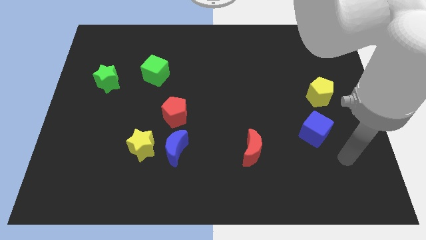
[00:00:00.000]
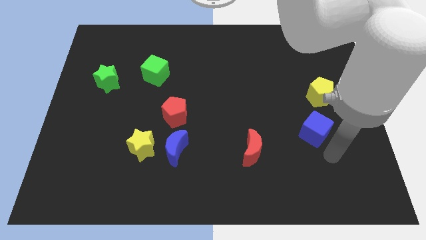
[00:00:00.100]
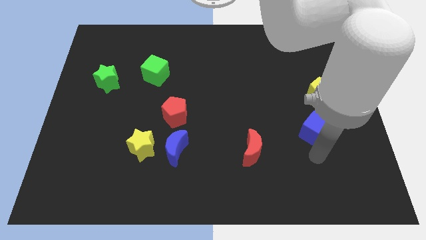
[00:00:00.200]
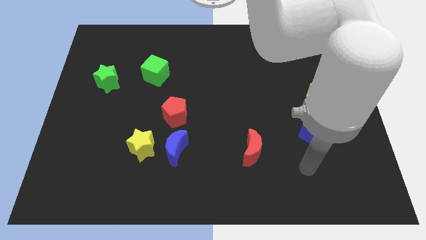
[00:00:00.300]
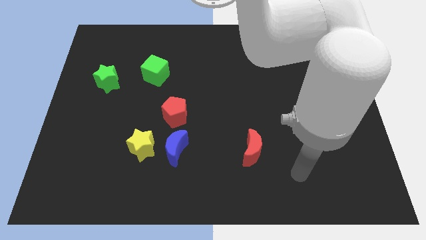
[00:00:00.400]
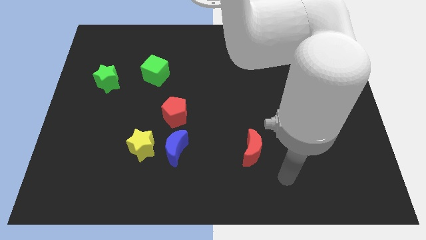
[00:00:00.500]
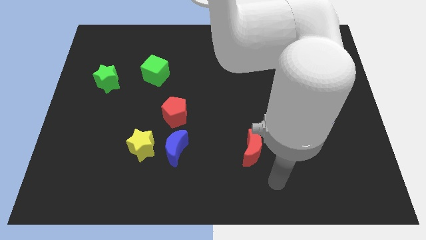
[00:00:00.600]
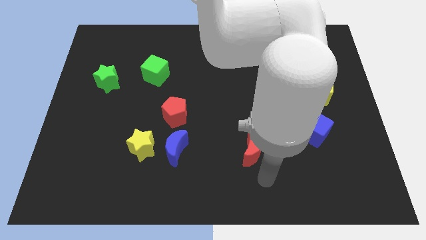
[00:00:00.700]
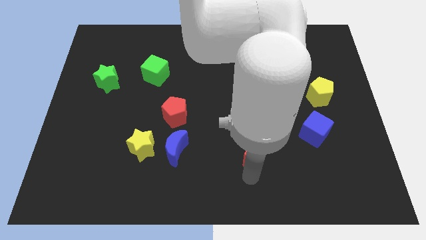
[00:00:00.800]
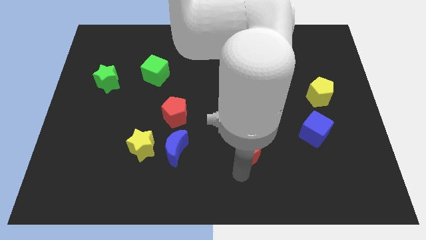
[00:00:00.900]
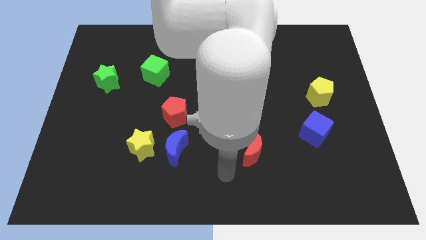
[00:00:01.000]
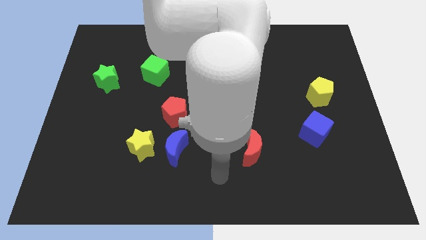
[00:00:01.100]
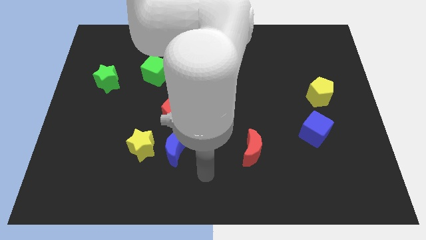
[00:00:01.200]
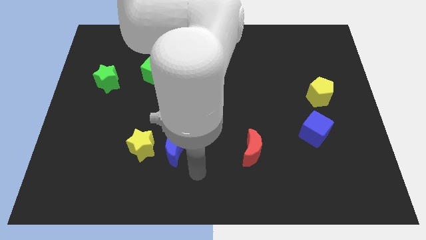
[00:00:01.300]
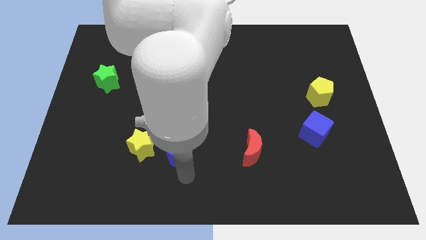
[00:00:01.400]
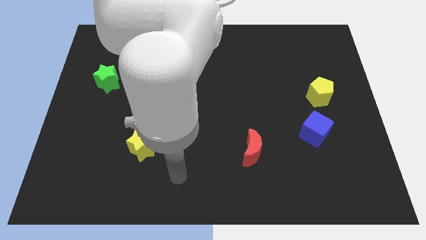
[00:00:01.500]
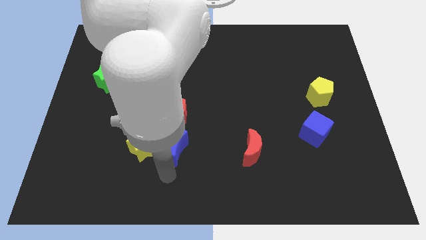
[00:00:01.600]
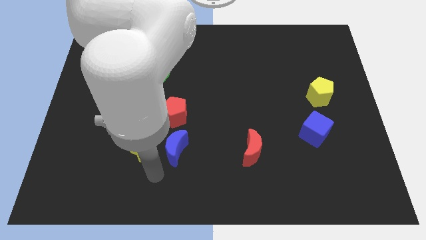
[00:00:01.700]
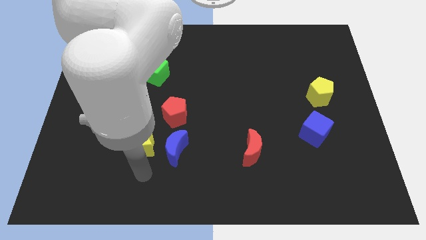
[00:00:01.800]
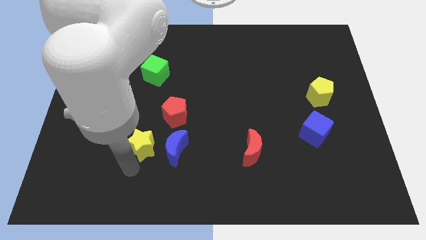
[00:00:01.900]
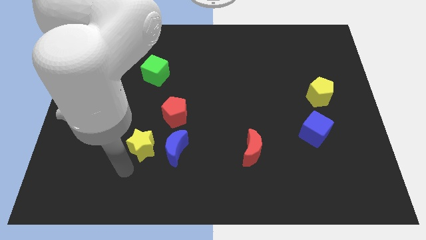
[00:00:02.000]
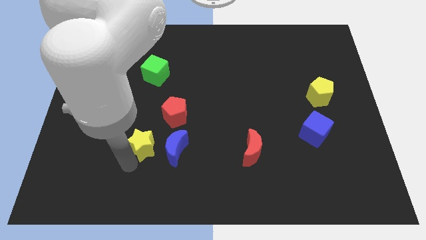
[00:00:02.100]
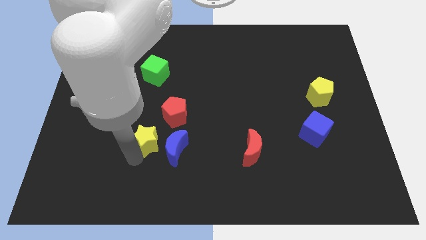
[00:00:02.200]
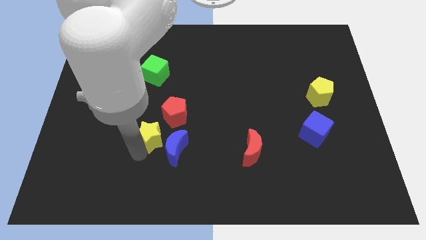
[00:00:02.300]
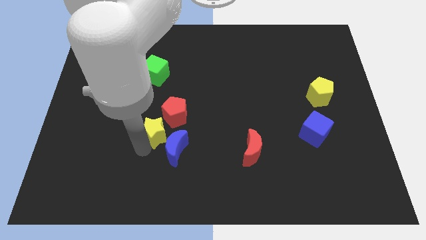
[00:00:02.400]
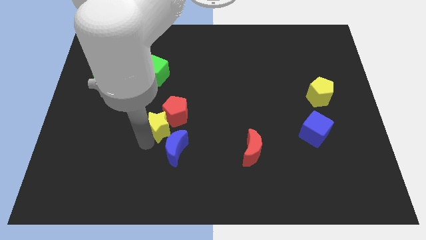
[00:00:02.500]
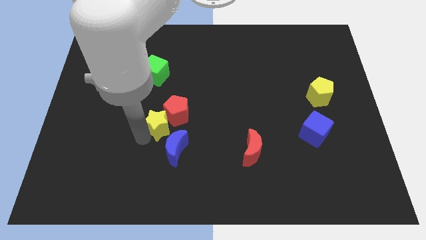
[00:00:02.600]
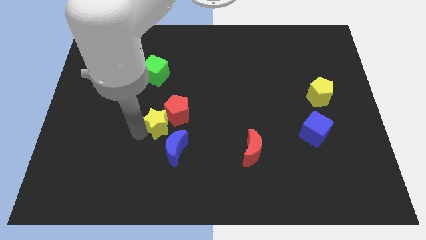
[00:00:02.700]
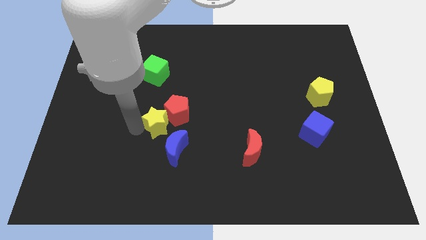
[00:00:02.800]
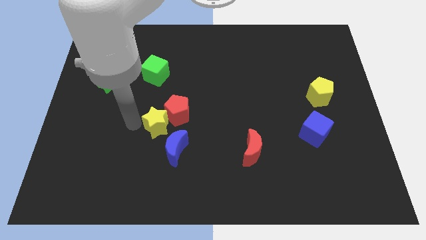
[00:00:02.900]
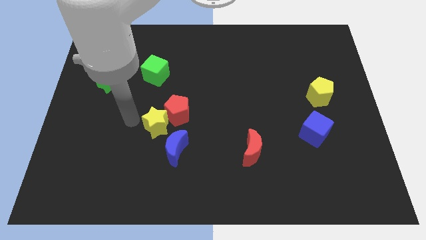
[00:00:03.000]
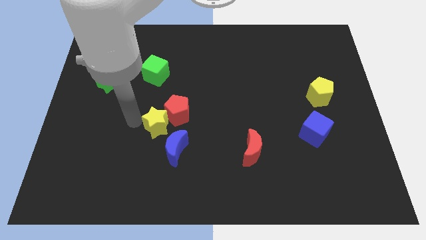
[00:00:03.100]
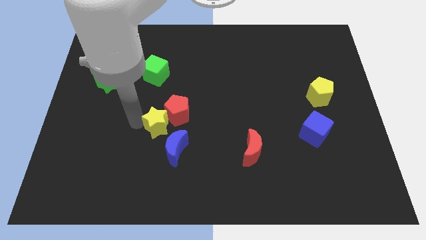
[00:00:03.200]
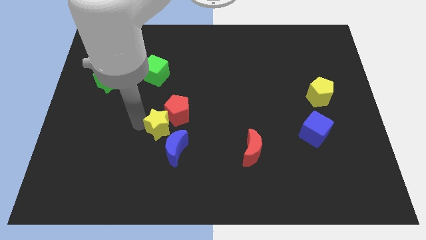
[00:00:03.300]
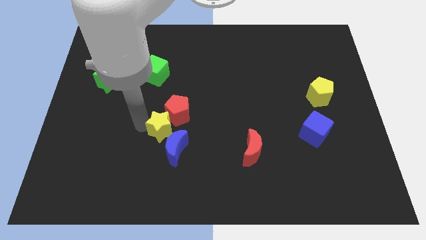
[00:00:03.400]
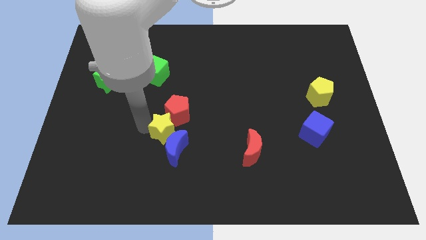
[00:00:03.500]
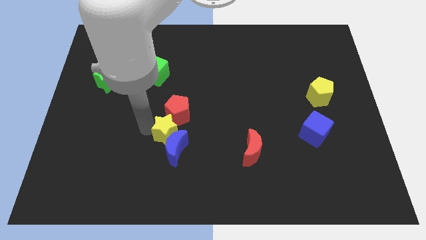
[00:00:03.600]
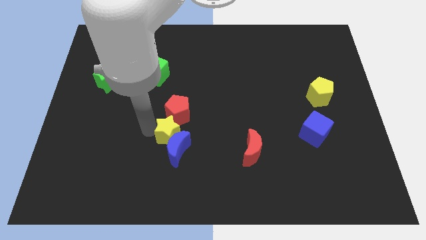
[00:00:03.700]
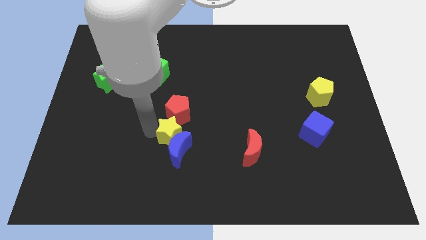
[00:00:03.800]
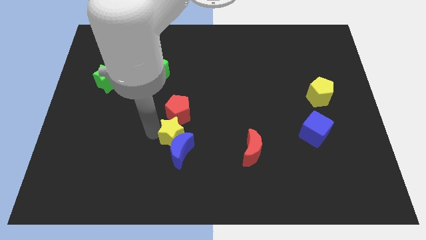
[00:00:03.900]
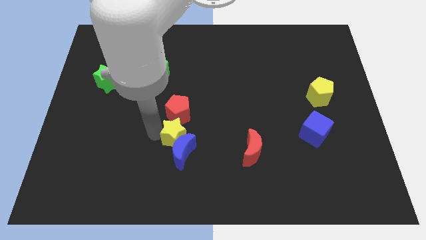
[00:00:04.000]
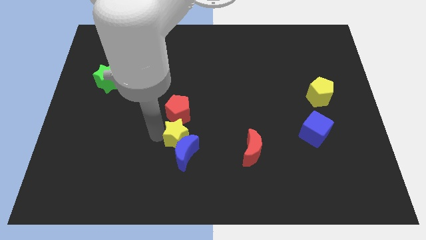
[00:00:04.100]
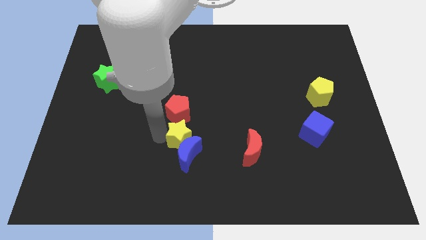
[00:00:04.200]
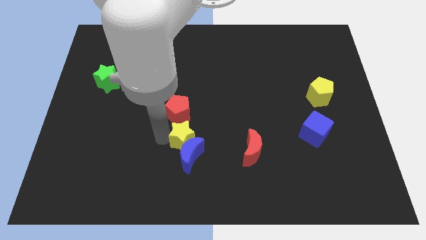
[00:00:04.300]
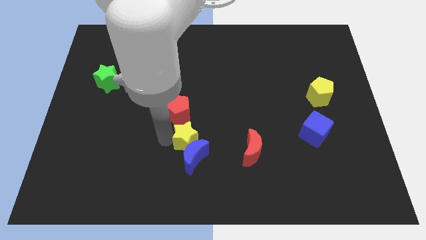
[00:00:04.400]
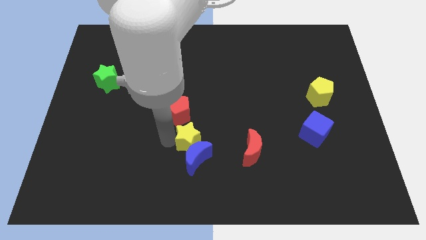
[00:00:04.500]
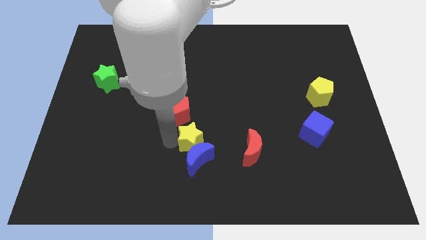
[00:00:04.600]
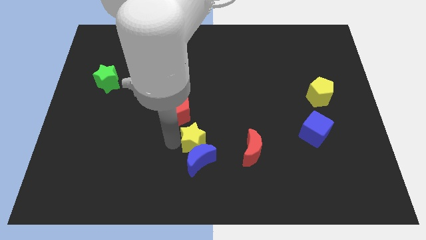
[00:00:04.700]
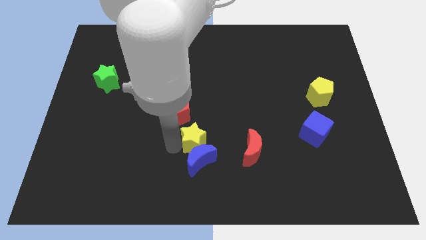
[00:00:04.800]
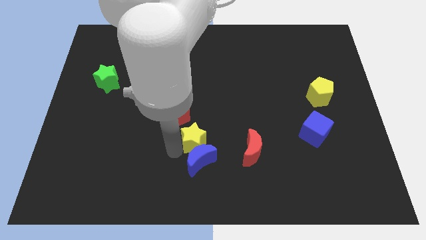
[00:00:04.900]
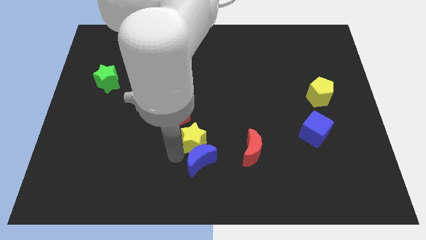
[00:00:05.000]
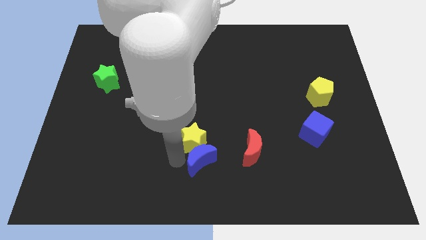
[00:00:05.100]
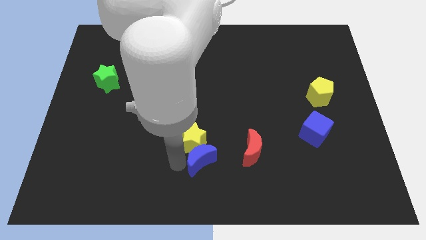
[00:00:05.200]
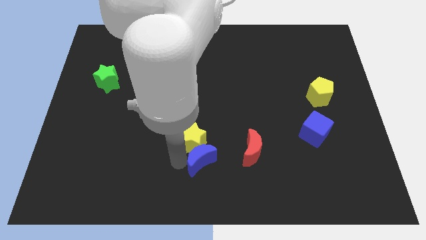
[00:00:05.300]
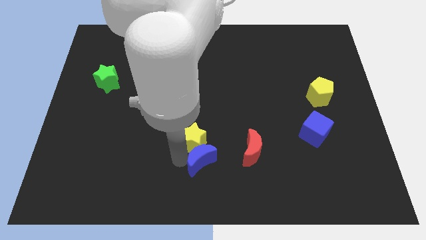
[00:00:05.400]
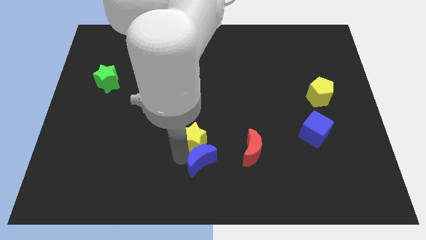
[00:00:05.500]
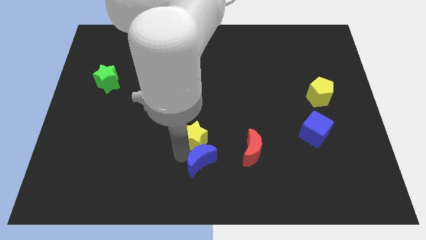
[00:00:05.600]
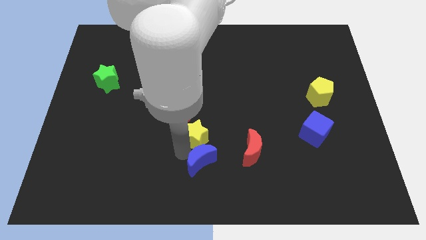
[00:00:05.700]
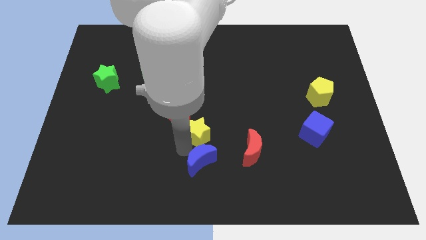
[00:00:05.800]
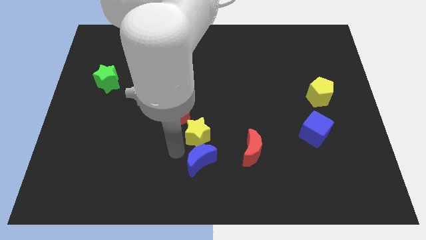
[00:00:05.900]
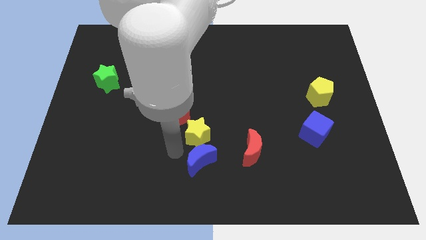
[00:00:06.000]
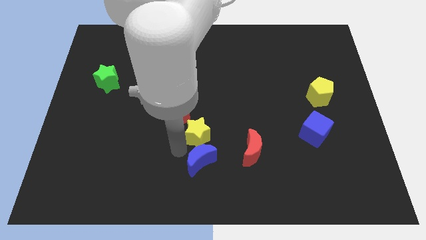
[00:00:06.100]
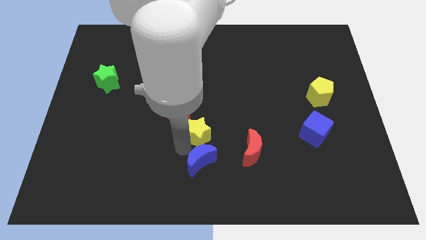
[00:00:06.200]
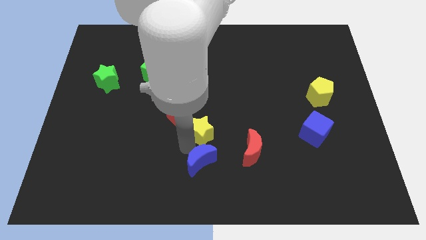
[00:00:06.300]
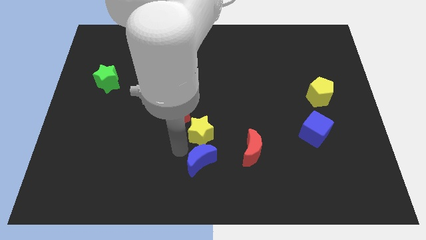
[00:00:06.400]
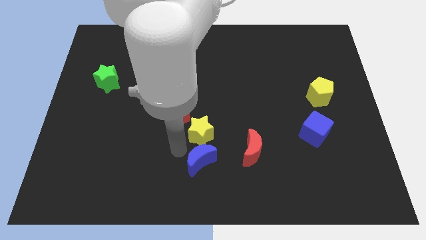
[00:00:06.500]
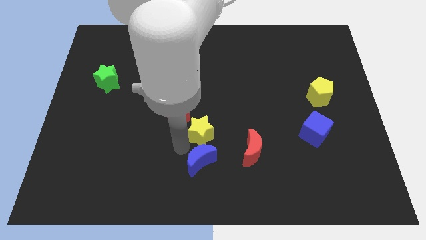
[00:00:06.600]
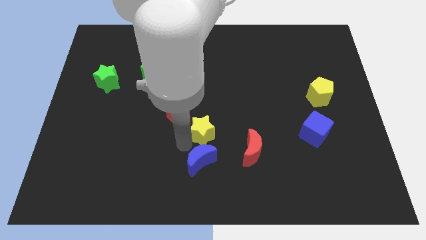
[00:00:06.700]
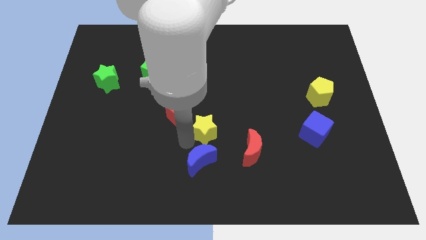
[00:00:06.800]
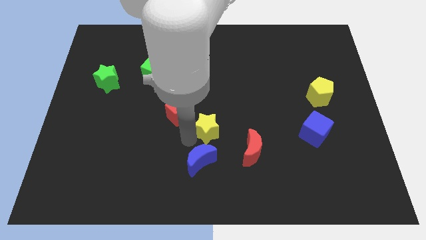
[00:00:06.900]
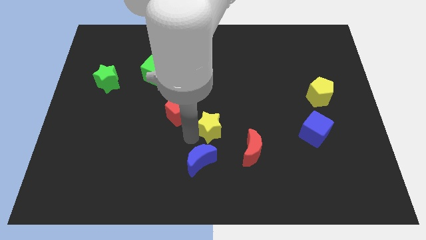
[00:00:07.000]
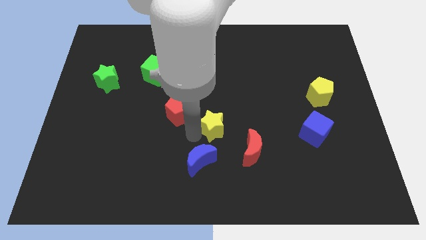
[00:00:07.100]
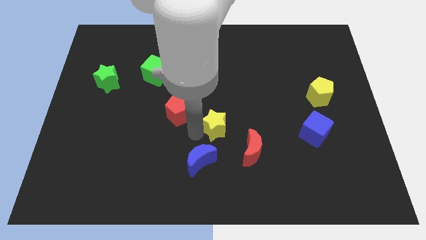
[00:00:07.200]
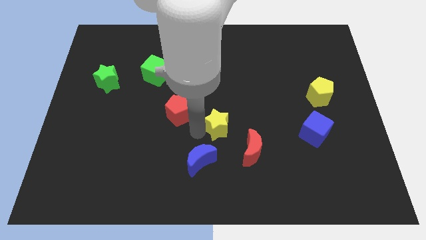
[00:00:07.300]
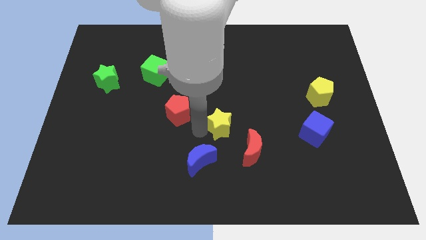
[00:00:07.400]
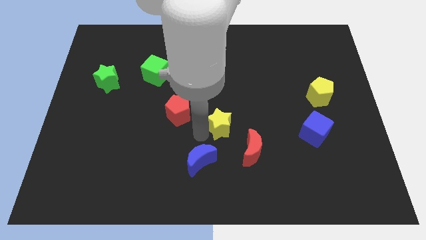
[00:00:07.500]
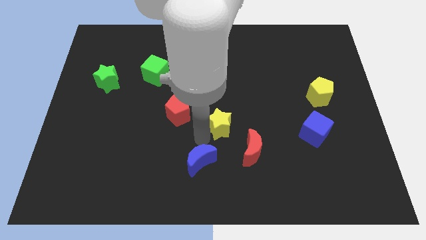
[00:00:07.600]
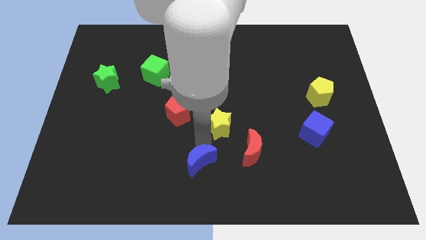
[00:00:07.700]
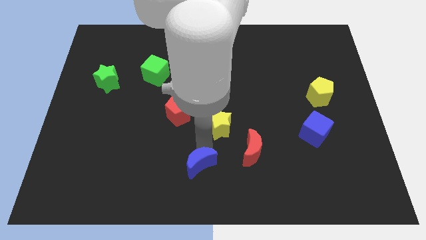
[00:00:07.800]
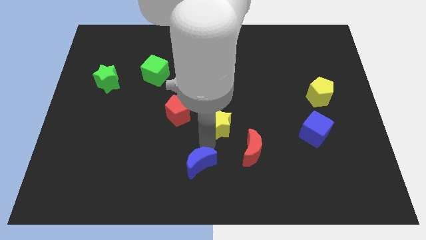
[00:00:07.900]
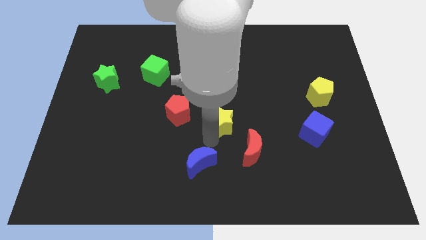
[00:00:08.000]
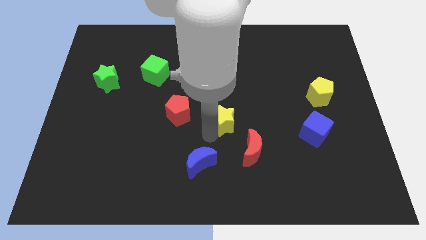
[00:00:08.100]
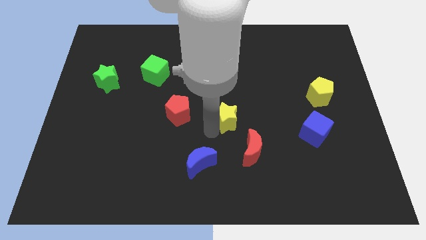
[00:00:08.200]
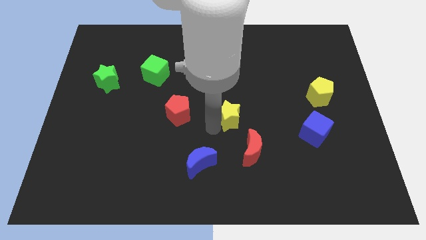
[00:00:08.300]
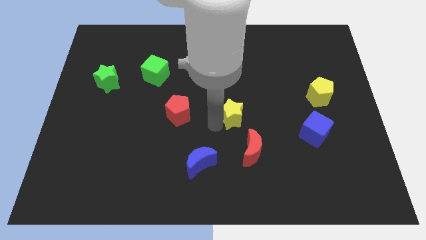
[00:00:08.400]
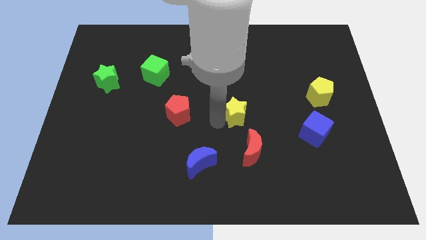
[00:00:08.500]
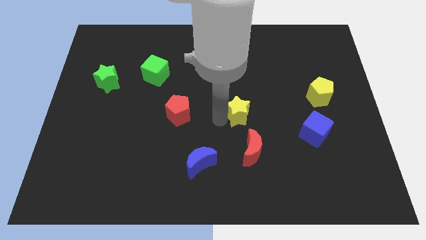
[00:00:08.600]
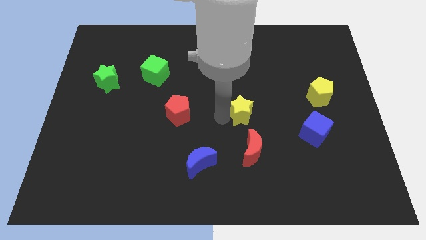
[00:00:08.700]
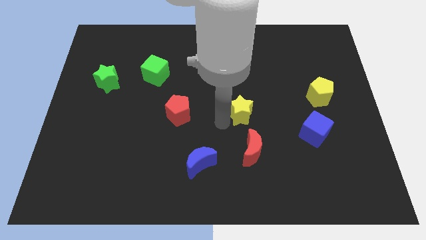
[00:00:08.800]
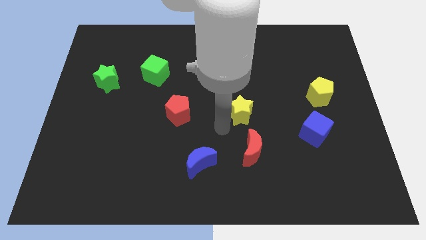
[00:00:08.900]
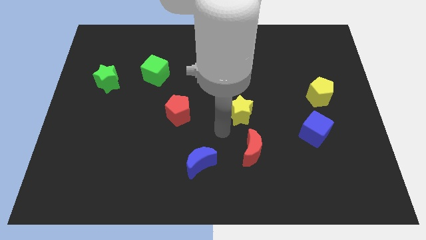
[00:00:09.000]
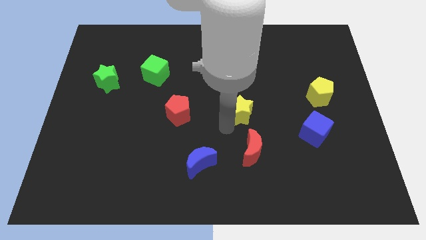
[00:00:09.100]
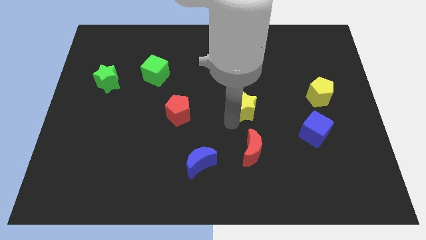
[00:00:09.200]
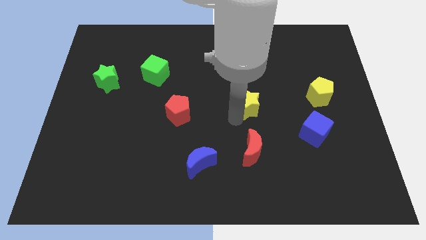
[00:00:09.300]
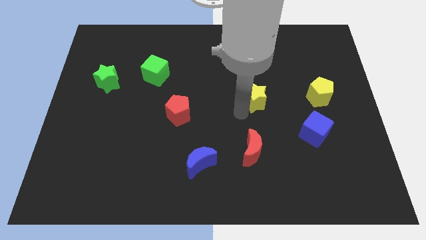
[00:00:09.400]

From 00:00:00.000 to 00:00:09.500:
put the yellow star just left of the yellow pentagon
